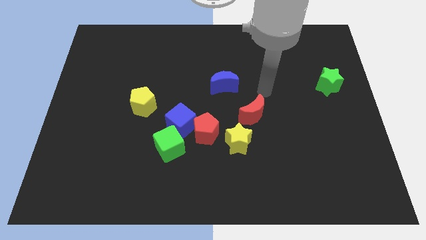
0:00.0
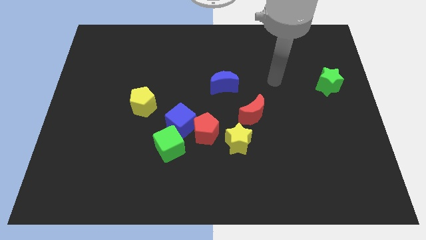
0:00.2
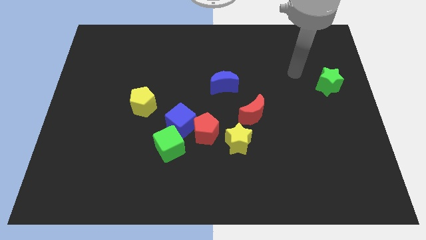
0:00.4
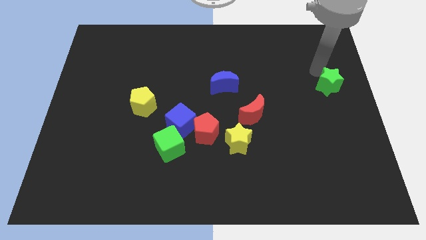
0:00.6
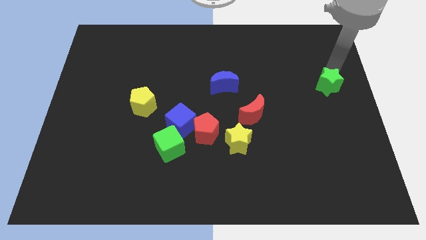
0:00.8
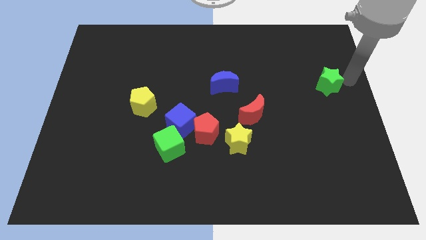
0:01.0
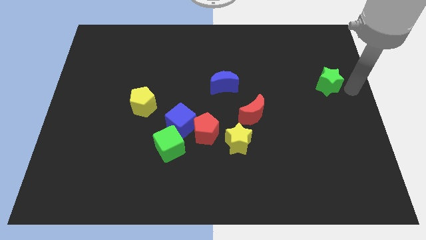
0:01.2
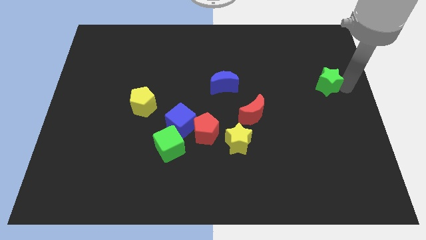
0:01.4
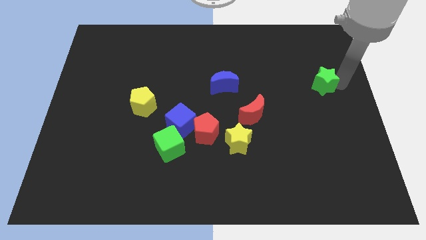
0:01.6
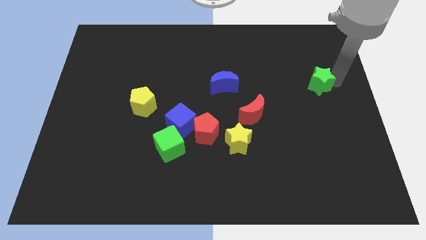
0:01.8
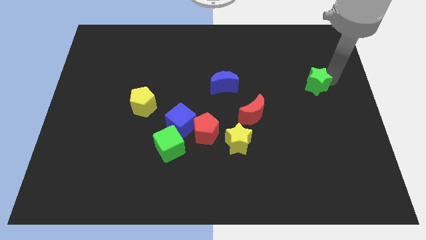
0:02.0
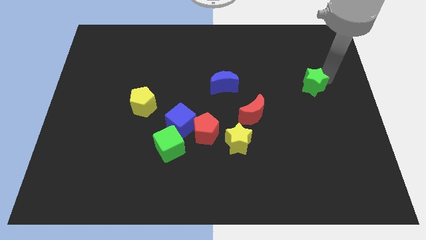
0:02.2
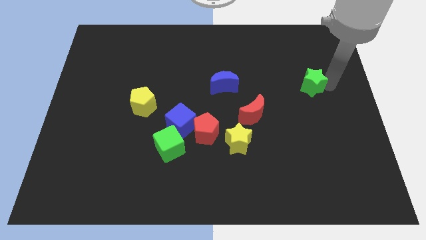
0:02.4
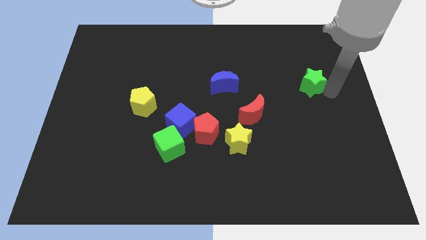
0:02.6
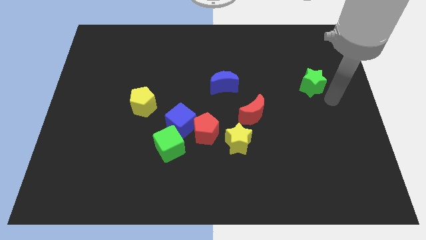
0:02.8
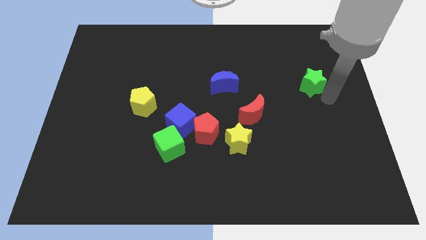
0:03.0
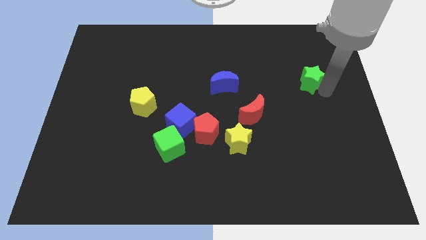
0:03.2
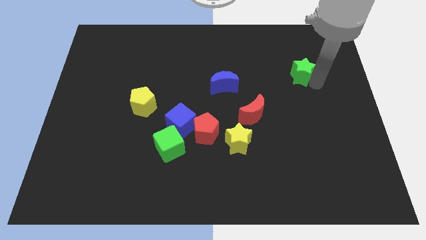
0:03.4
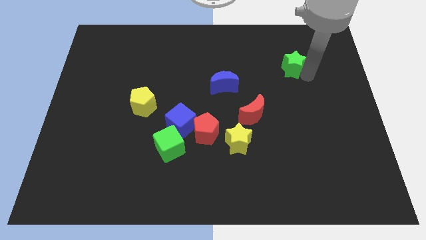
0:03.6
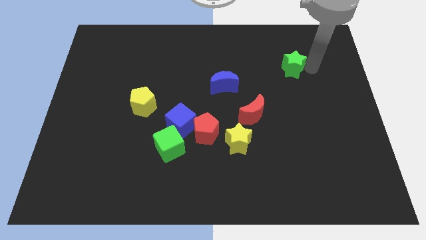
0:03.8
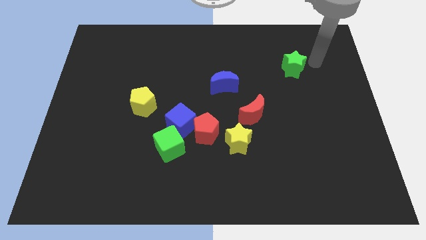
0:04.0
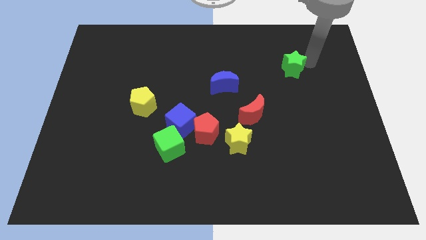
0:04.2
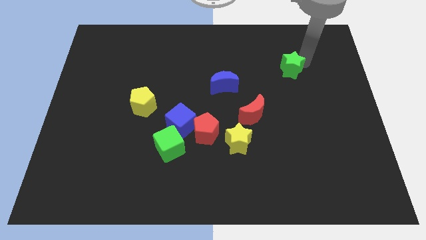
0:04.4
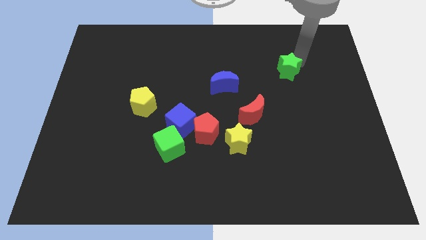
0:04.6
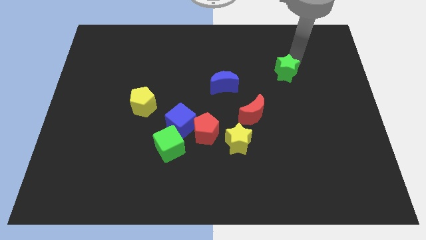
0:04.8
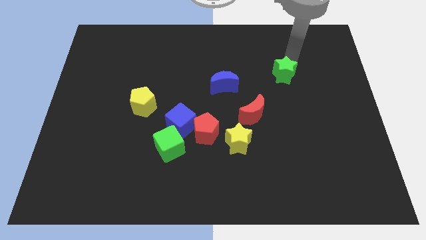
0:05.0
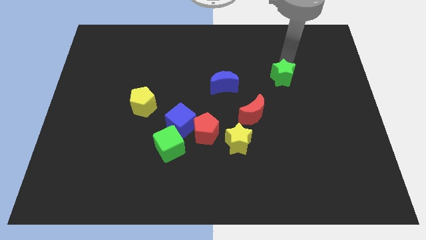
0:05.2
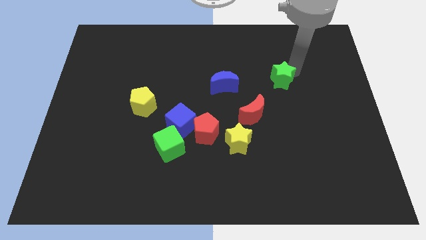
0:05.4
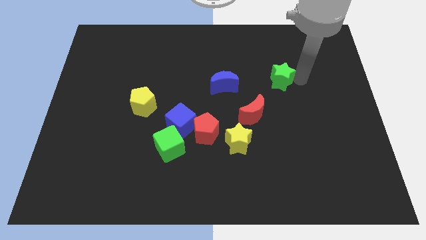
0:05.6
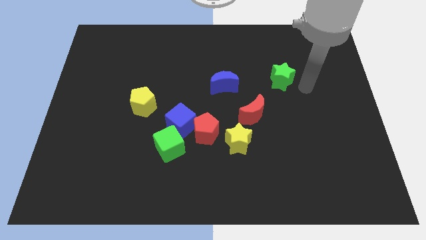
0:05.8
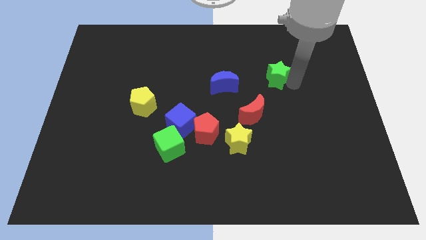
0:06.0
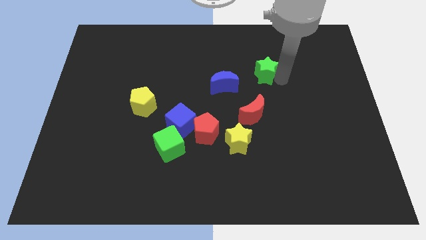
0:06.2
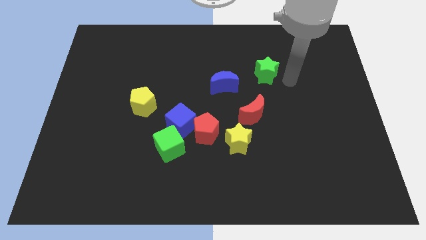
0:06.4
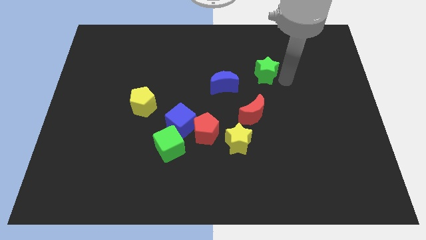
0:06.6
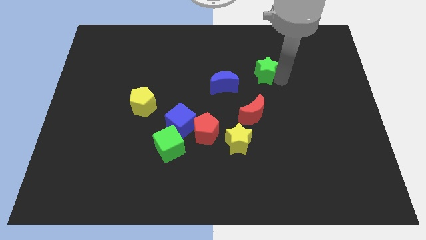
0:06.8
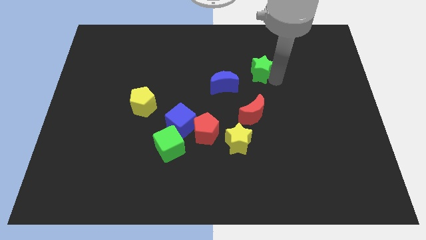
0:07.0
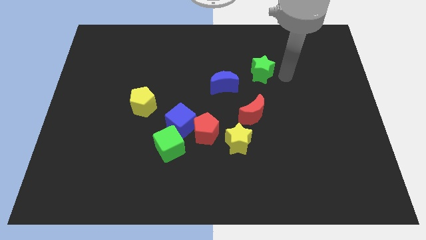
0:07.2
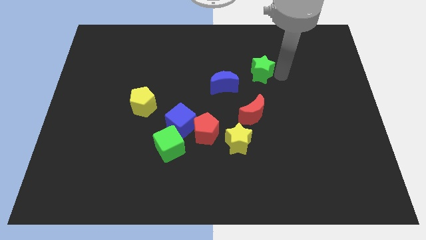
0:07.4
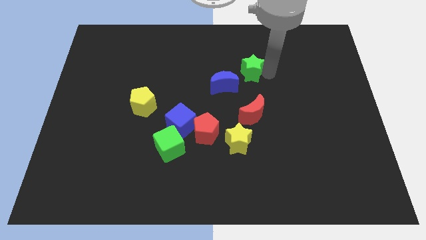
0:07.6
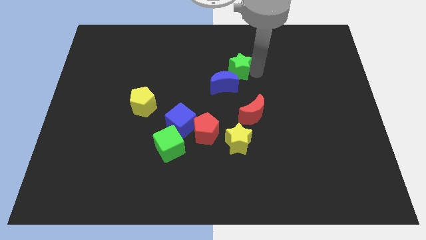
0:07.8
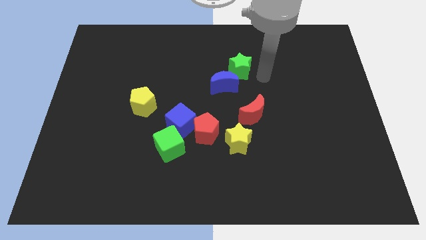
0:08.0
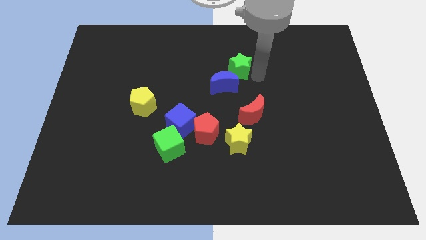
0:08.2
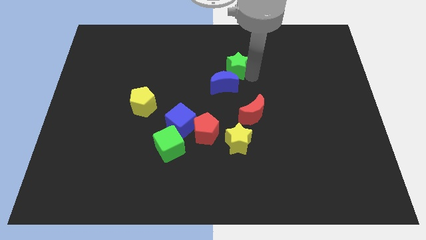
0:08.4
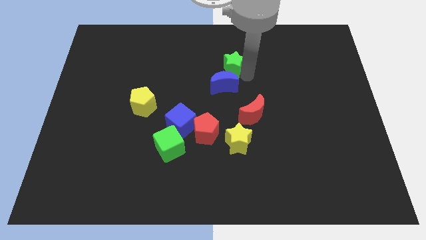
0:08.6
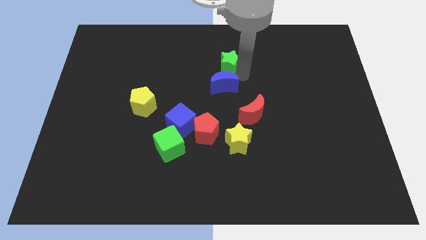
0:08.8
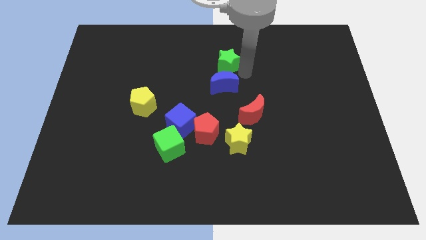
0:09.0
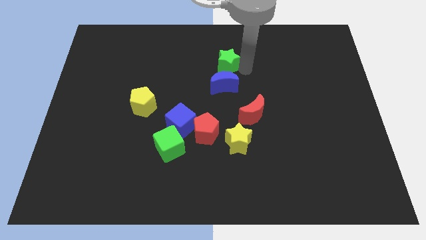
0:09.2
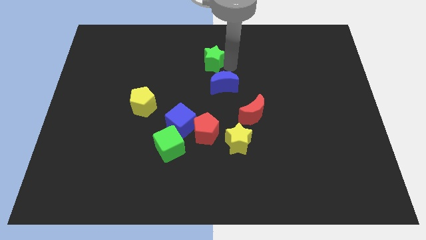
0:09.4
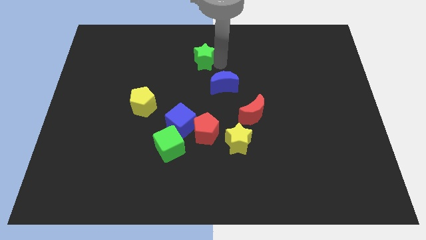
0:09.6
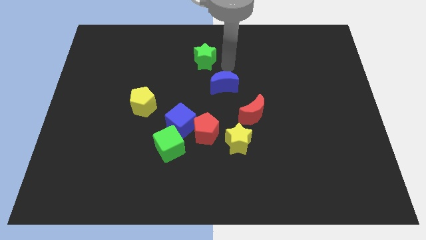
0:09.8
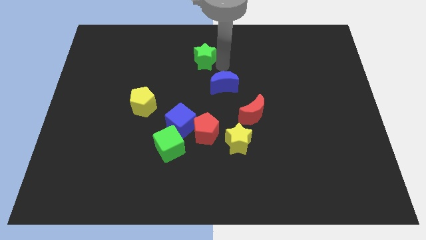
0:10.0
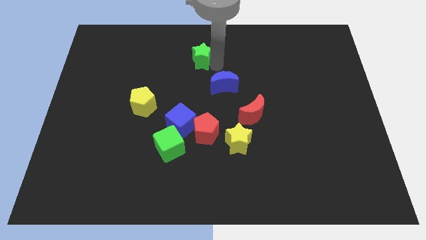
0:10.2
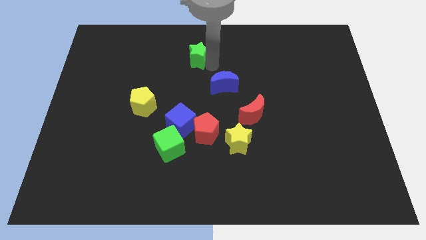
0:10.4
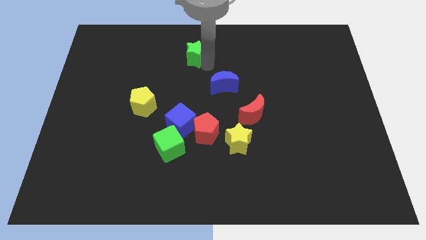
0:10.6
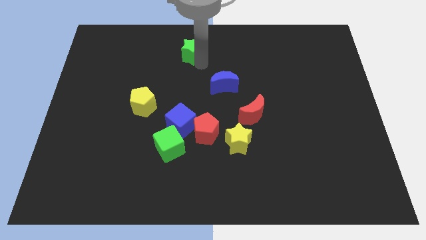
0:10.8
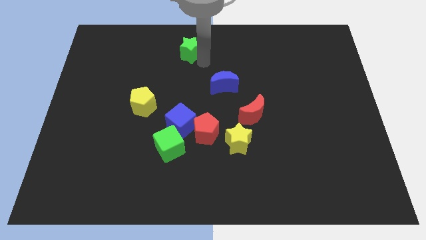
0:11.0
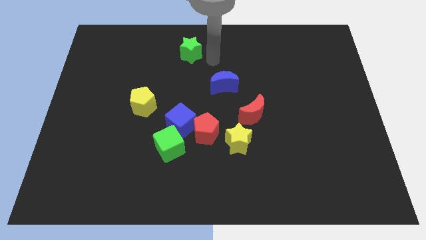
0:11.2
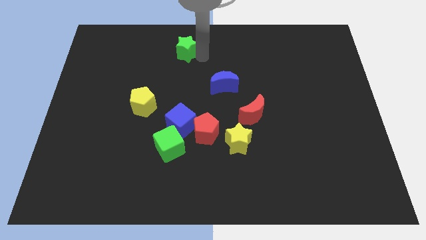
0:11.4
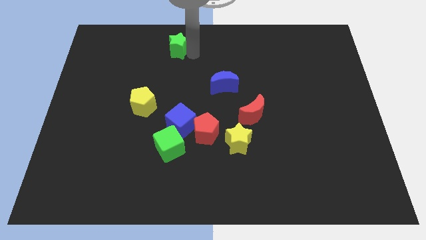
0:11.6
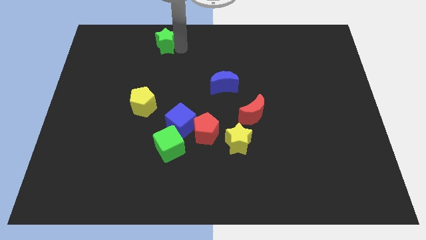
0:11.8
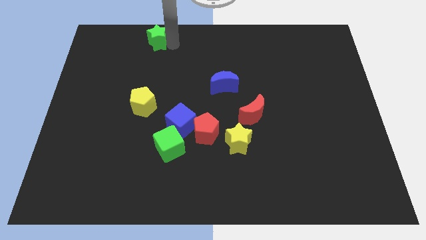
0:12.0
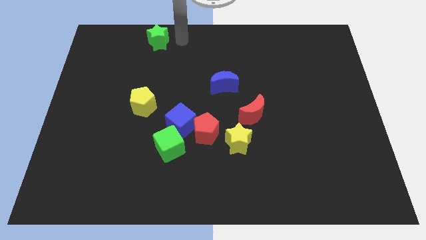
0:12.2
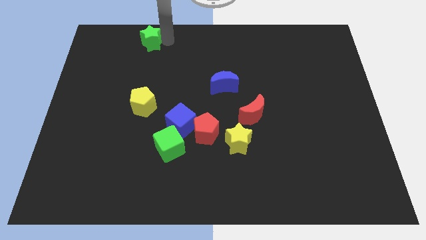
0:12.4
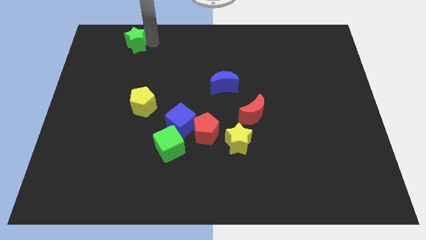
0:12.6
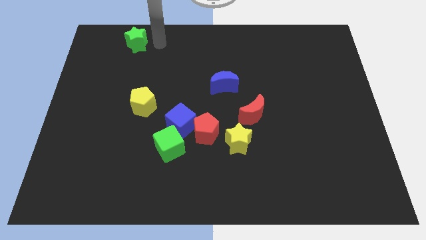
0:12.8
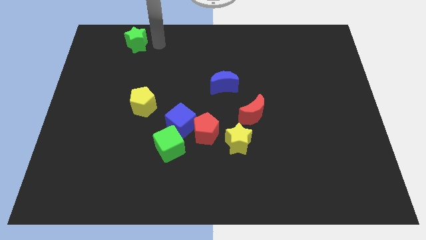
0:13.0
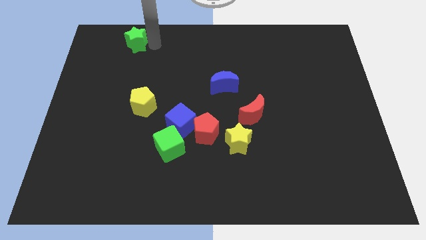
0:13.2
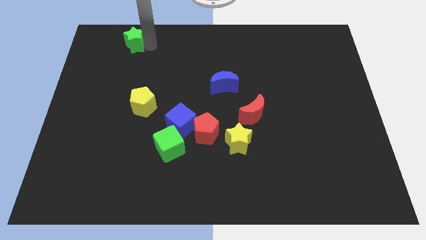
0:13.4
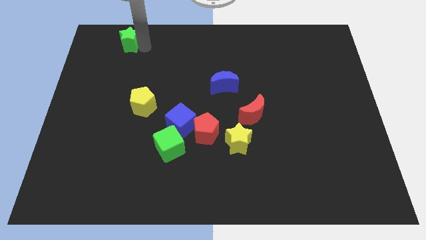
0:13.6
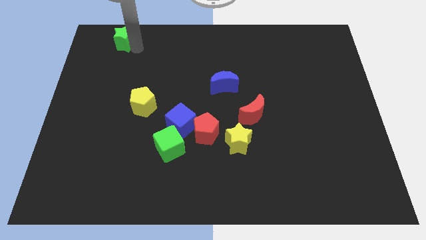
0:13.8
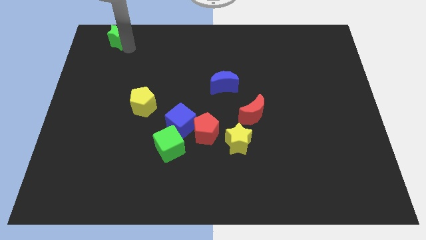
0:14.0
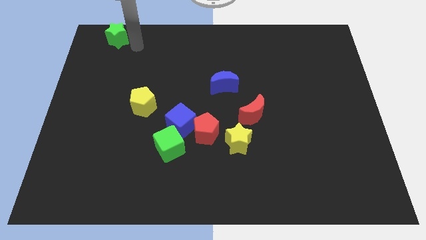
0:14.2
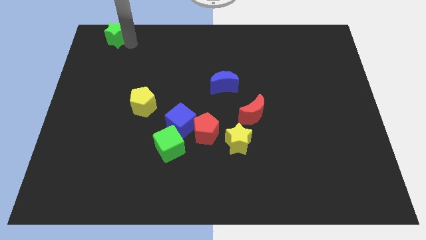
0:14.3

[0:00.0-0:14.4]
push the green star to the top left of the board
